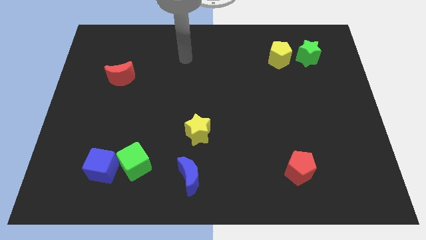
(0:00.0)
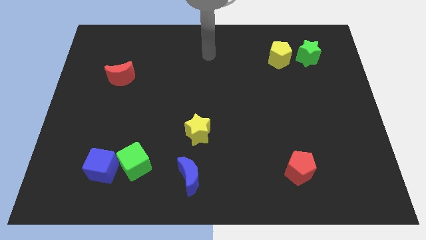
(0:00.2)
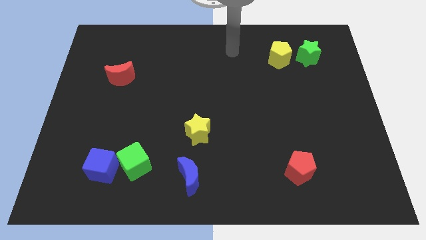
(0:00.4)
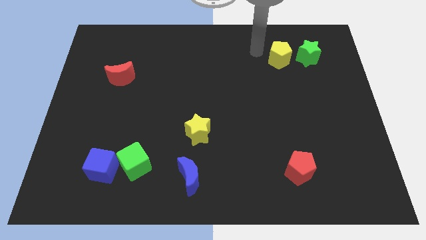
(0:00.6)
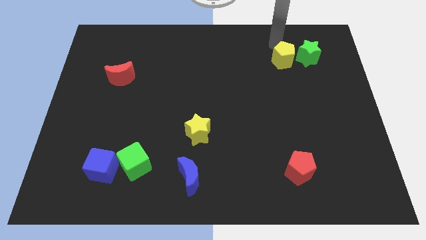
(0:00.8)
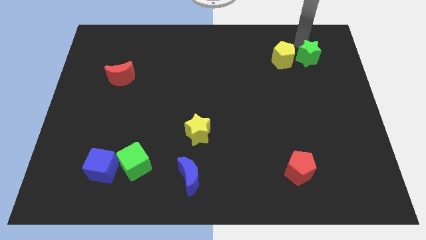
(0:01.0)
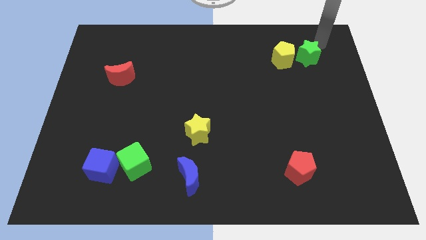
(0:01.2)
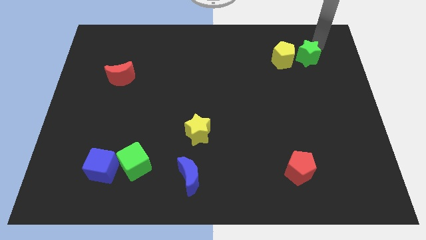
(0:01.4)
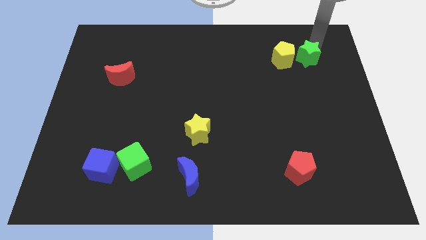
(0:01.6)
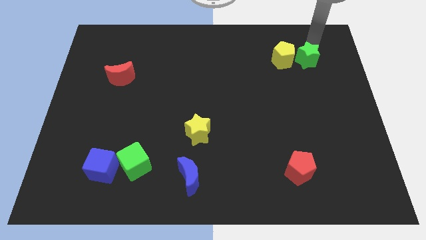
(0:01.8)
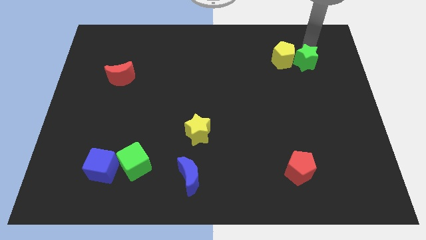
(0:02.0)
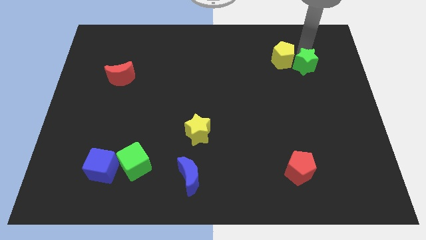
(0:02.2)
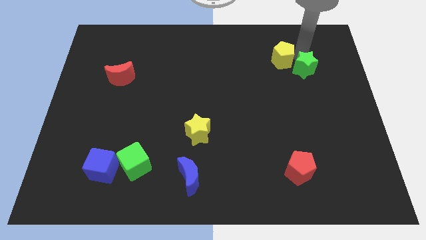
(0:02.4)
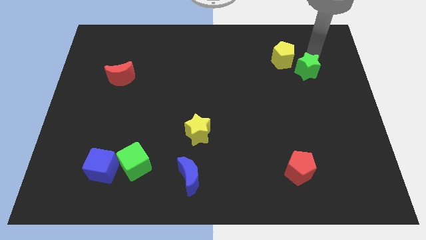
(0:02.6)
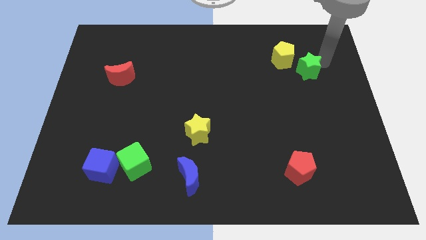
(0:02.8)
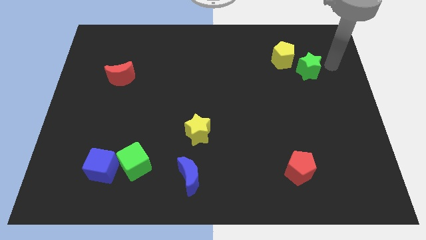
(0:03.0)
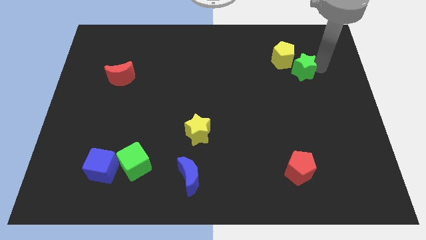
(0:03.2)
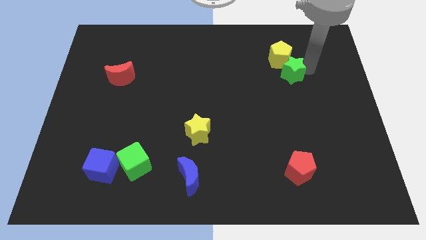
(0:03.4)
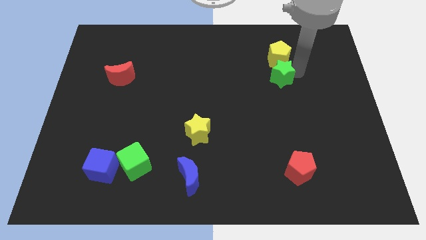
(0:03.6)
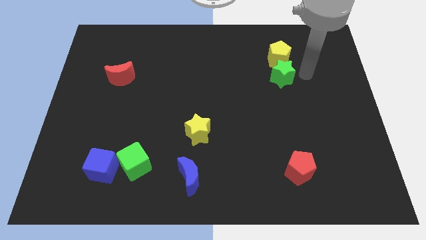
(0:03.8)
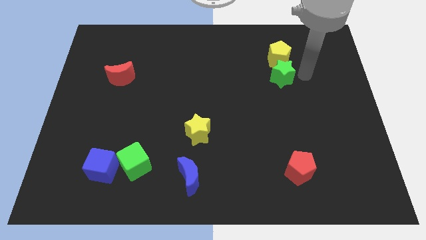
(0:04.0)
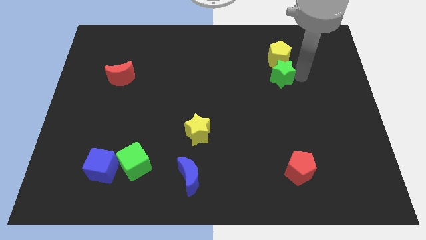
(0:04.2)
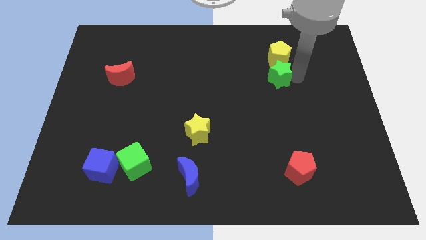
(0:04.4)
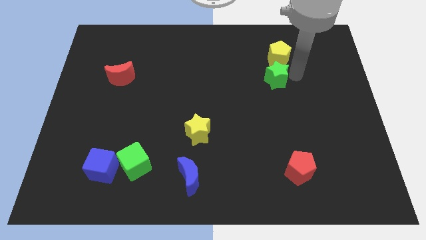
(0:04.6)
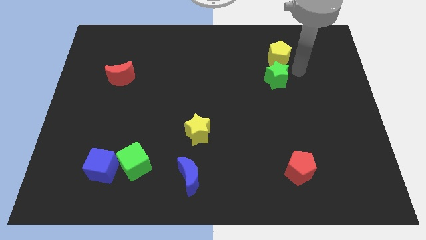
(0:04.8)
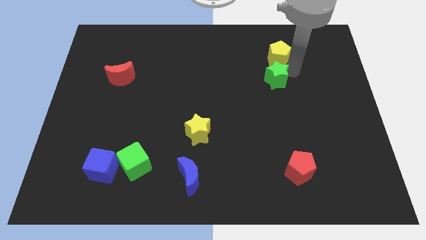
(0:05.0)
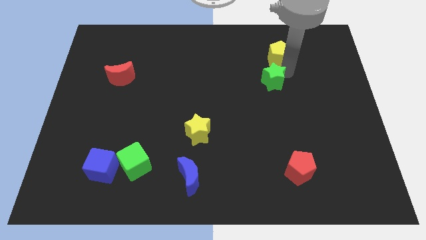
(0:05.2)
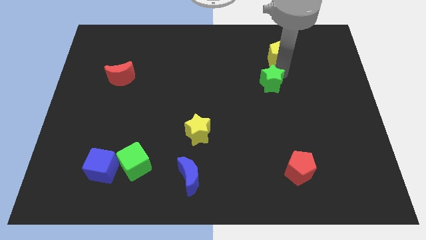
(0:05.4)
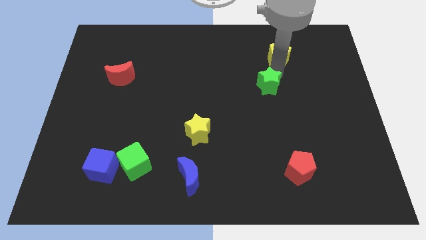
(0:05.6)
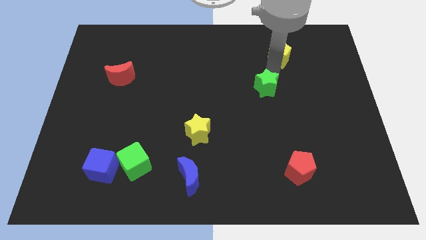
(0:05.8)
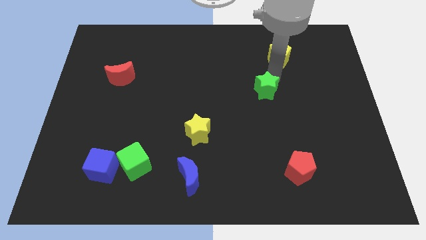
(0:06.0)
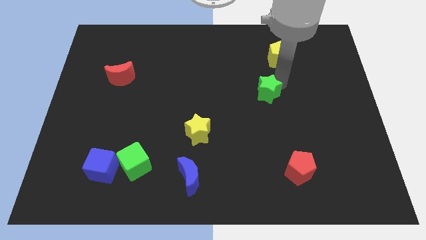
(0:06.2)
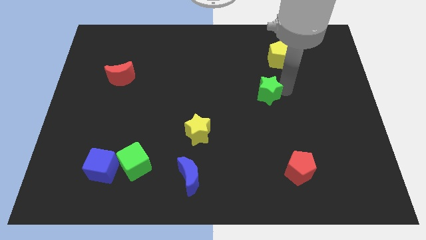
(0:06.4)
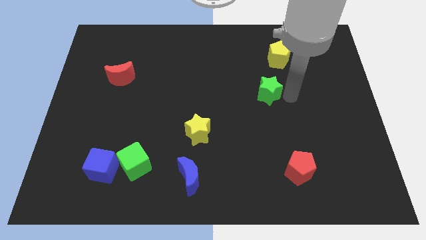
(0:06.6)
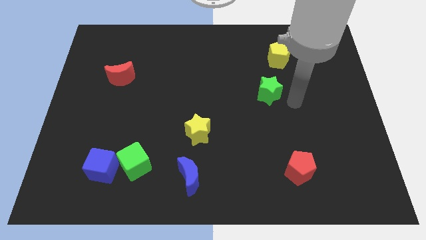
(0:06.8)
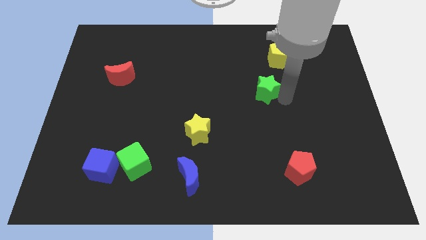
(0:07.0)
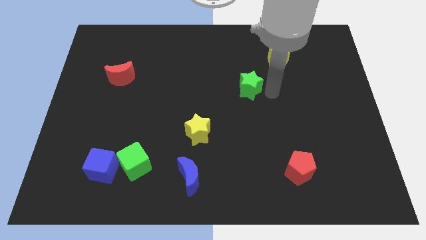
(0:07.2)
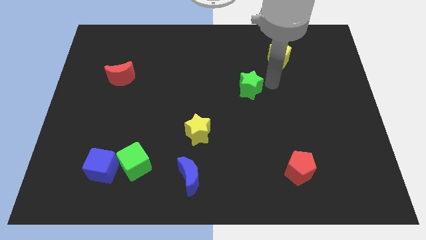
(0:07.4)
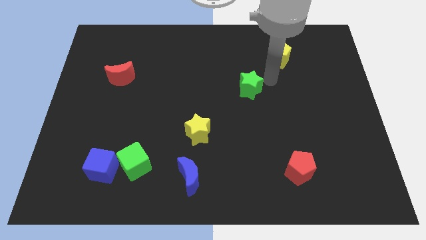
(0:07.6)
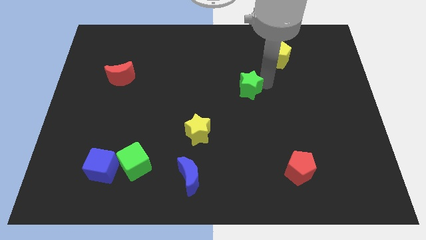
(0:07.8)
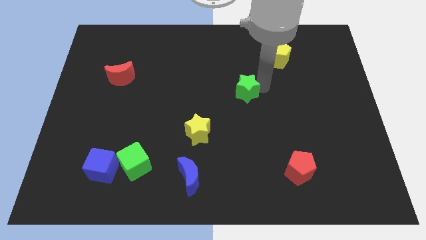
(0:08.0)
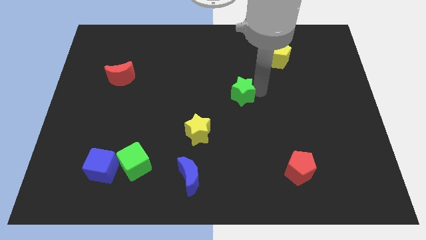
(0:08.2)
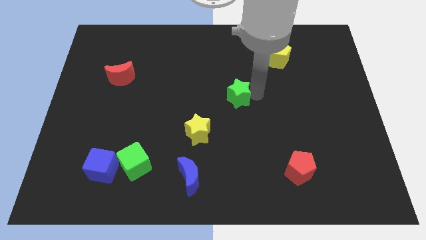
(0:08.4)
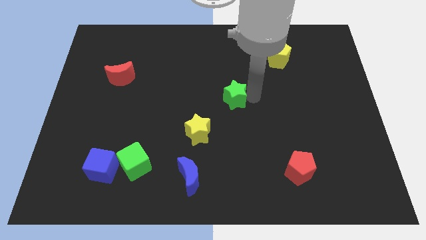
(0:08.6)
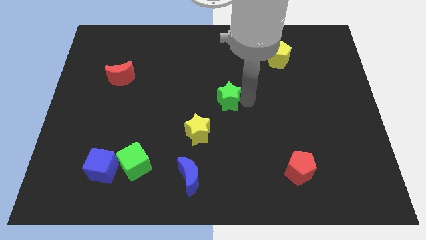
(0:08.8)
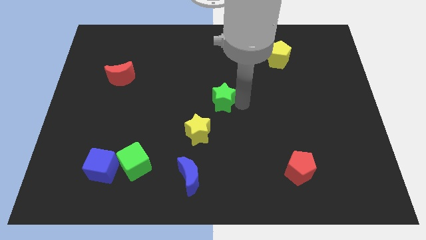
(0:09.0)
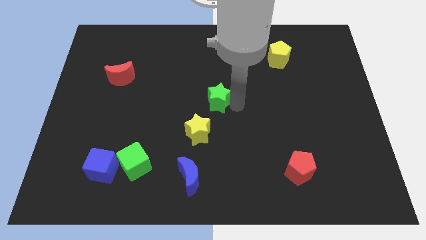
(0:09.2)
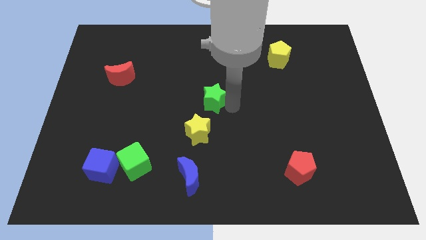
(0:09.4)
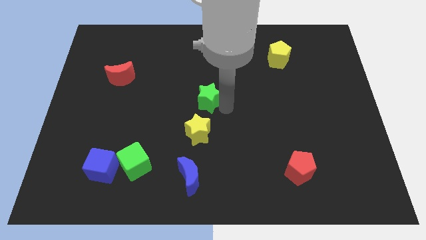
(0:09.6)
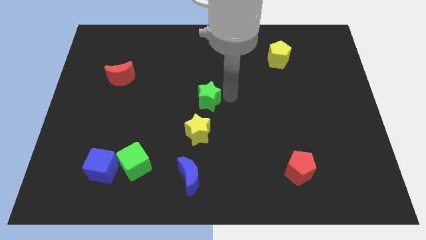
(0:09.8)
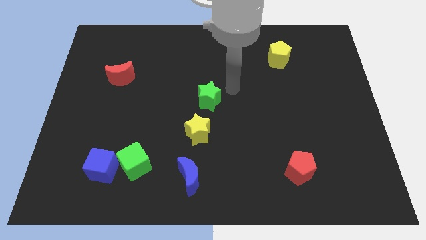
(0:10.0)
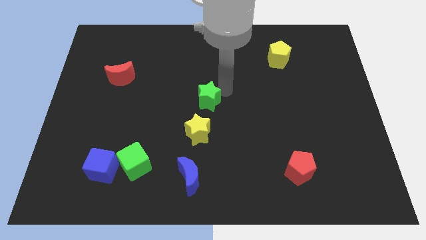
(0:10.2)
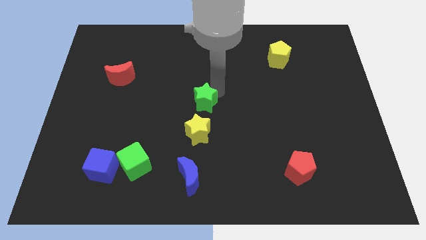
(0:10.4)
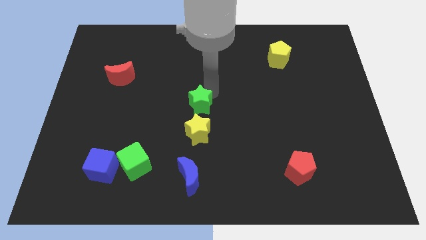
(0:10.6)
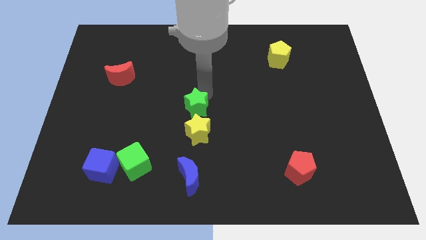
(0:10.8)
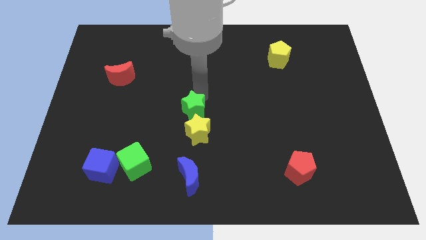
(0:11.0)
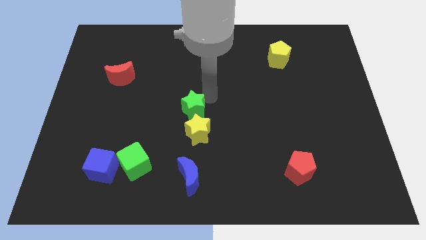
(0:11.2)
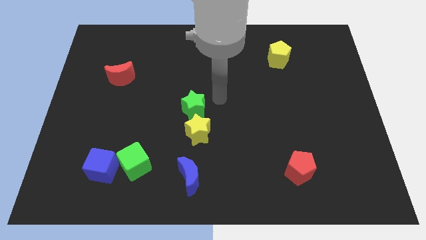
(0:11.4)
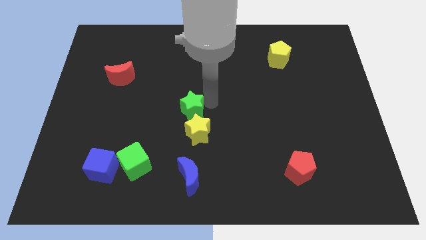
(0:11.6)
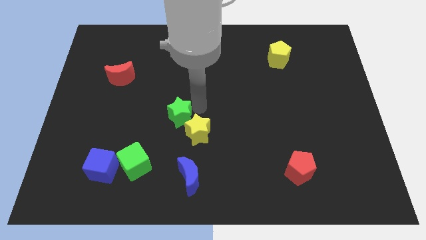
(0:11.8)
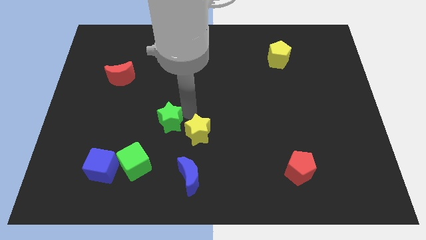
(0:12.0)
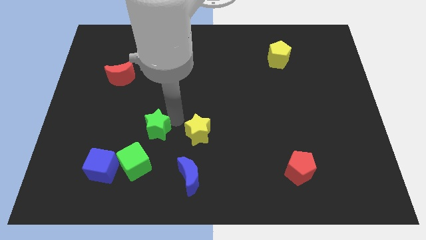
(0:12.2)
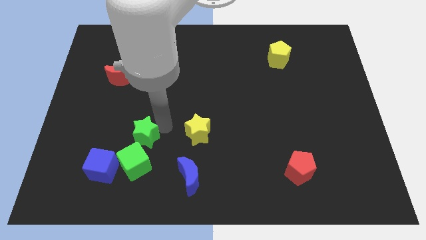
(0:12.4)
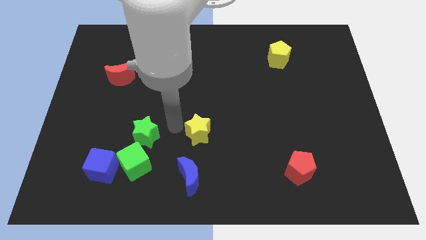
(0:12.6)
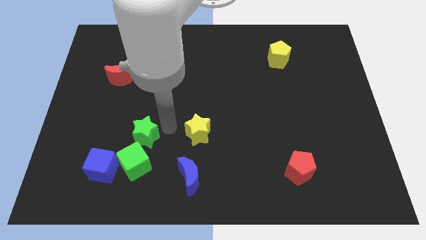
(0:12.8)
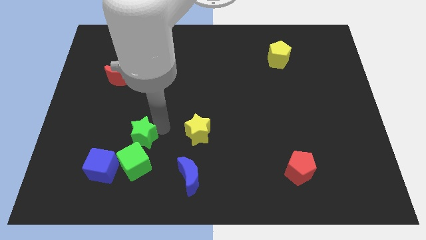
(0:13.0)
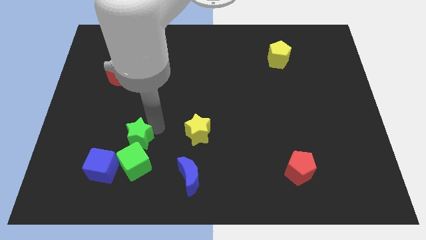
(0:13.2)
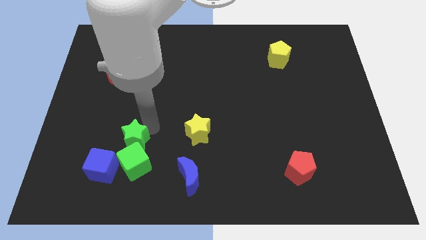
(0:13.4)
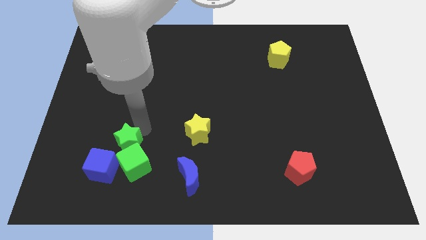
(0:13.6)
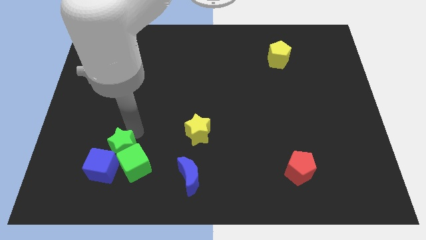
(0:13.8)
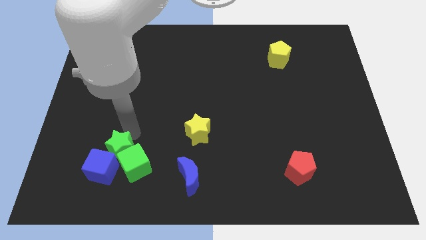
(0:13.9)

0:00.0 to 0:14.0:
put the green star next to the blue cube
